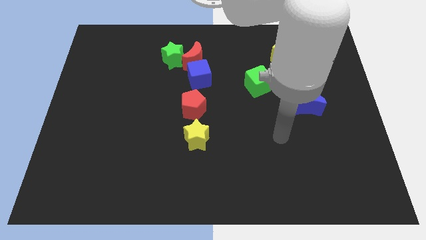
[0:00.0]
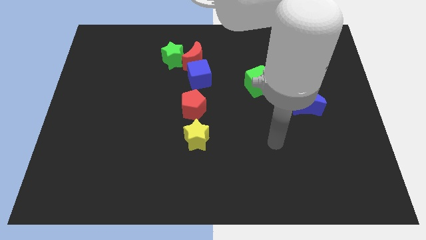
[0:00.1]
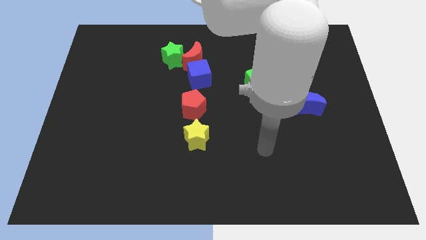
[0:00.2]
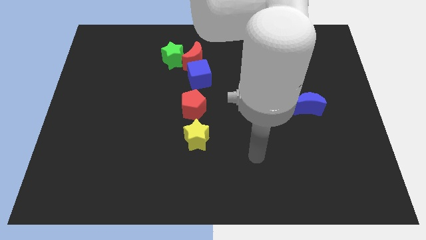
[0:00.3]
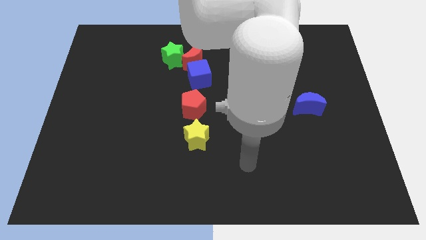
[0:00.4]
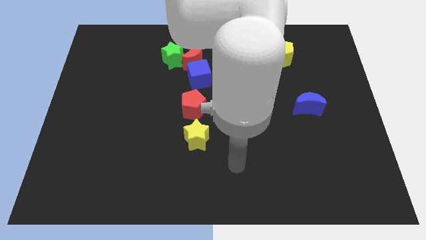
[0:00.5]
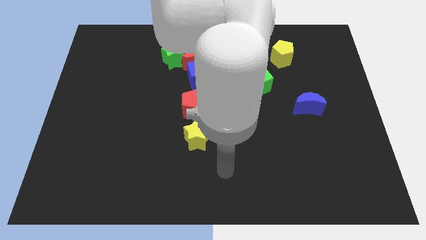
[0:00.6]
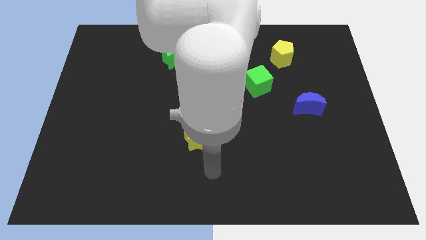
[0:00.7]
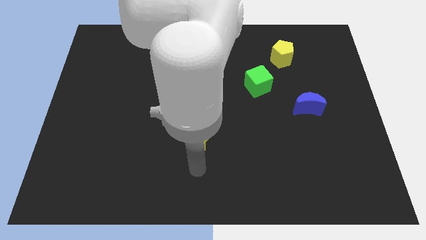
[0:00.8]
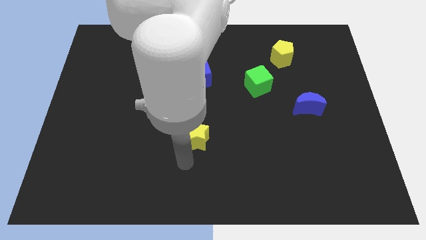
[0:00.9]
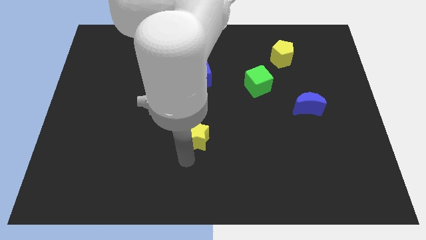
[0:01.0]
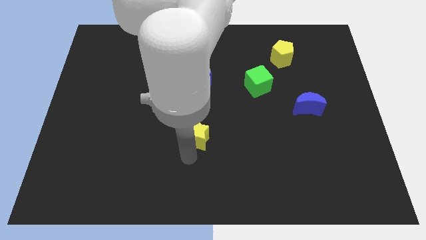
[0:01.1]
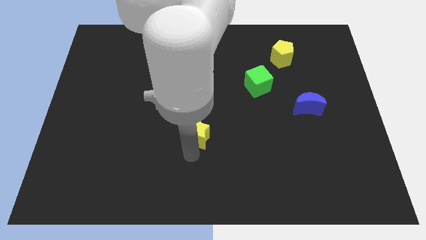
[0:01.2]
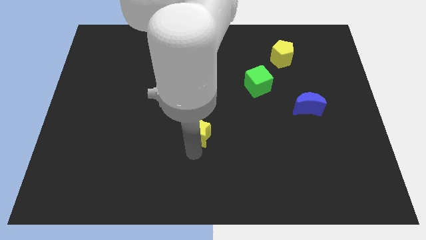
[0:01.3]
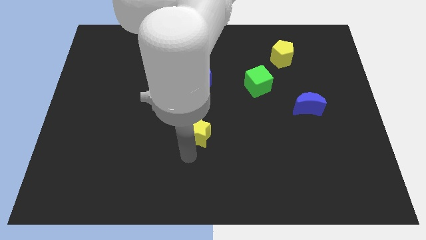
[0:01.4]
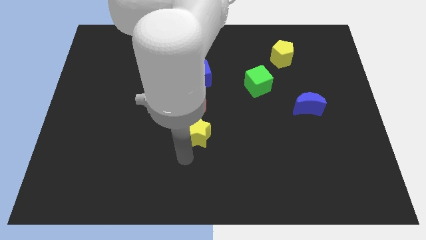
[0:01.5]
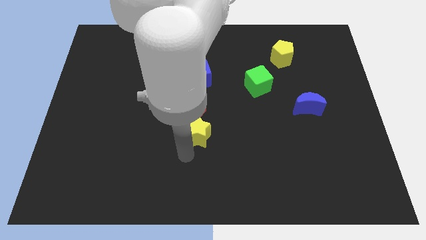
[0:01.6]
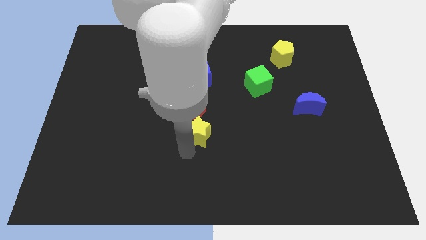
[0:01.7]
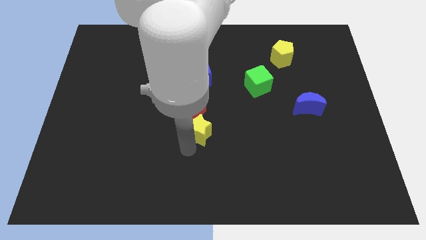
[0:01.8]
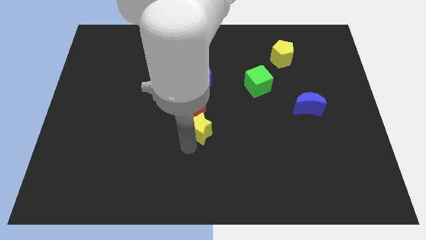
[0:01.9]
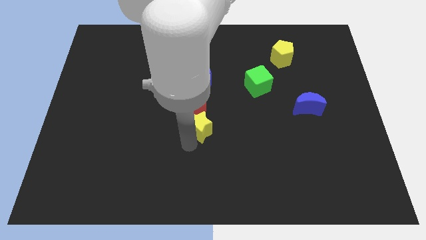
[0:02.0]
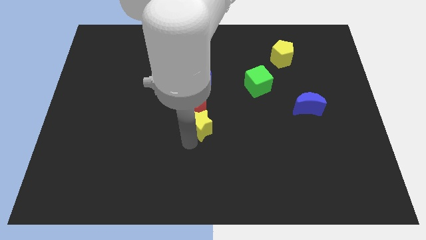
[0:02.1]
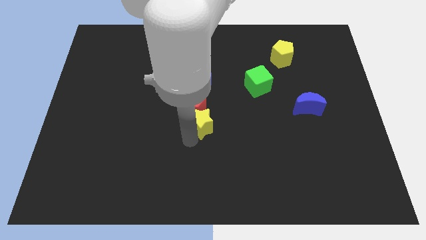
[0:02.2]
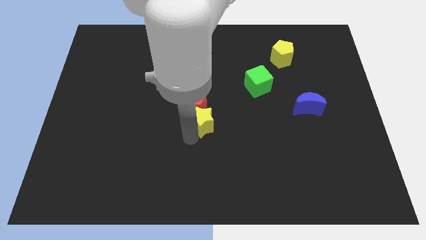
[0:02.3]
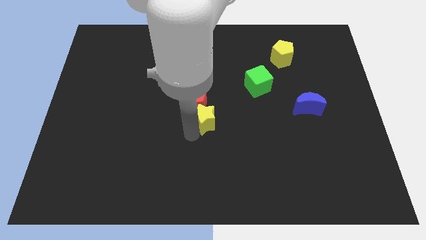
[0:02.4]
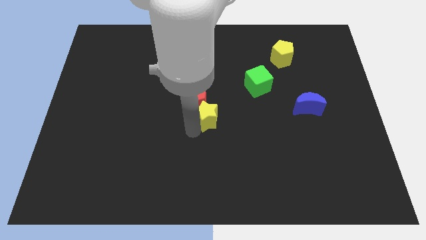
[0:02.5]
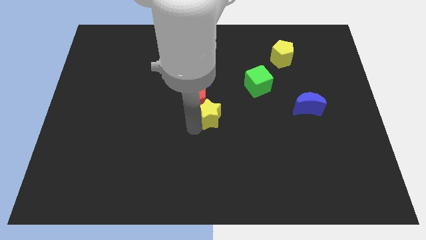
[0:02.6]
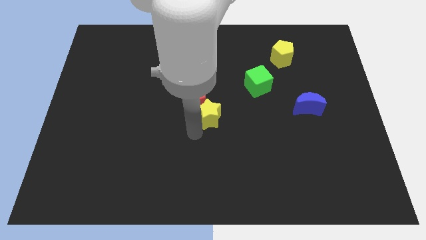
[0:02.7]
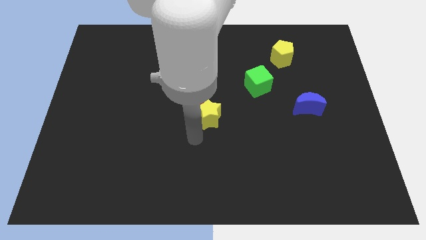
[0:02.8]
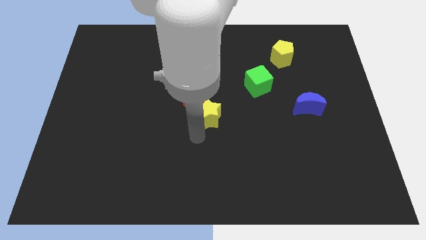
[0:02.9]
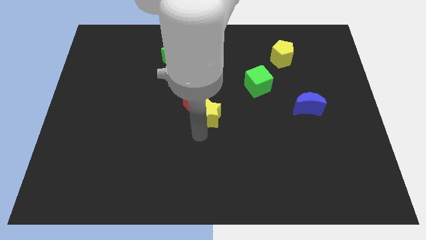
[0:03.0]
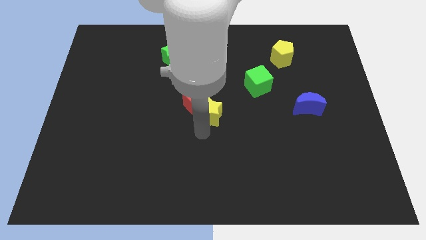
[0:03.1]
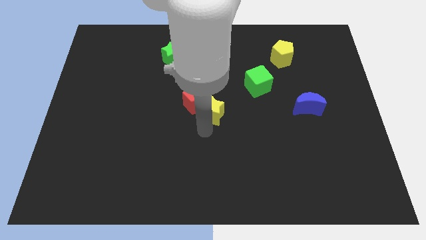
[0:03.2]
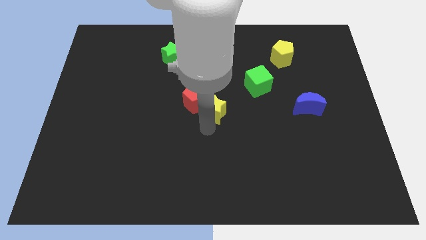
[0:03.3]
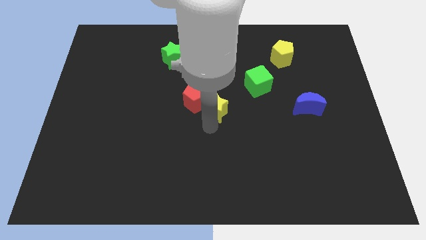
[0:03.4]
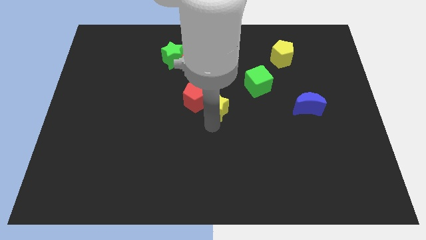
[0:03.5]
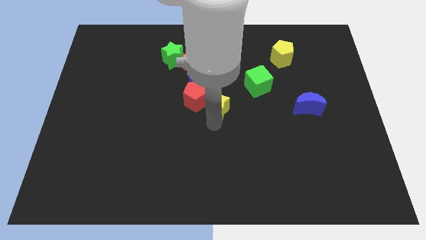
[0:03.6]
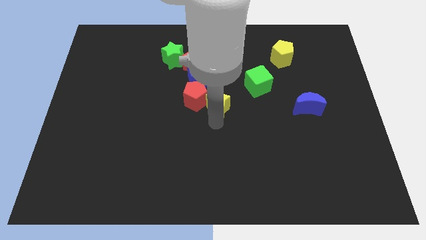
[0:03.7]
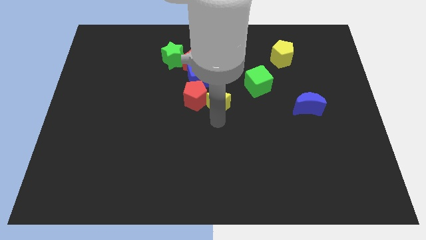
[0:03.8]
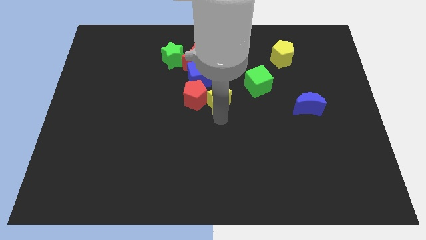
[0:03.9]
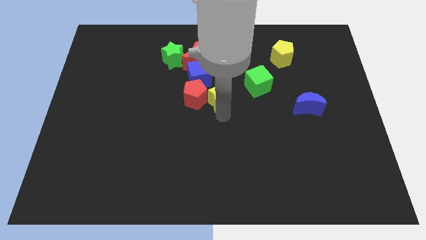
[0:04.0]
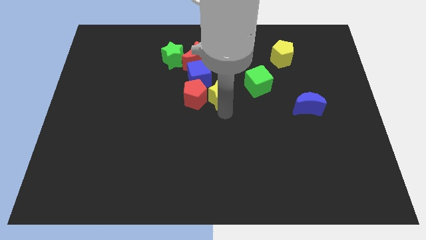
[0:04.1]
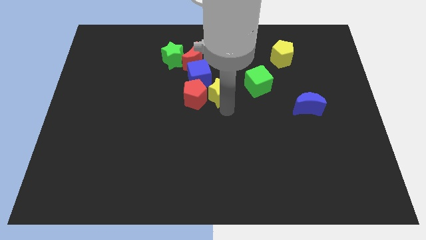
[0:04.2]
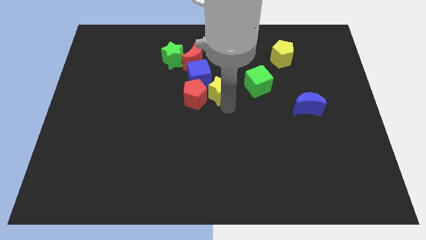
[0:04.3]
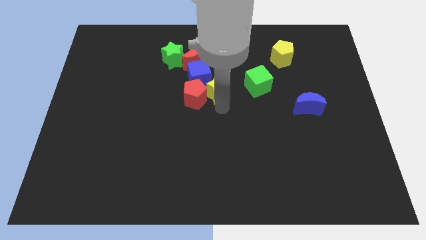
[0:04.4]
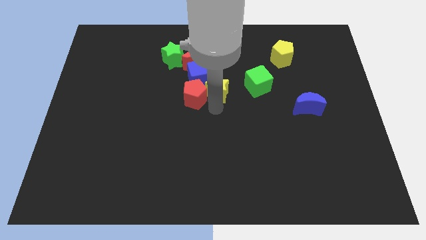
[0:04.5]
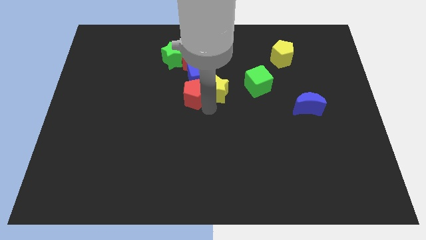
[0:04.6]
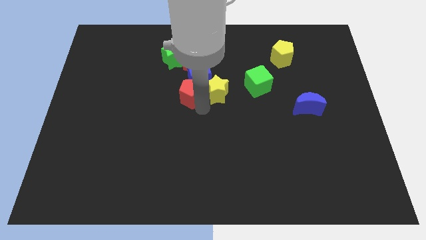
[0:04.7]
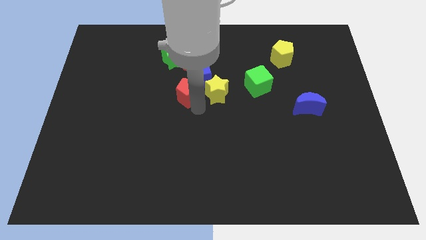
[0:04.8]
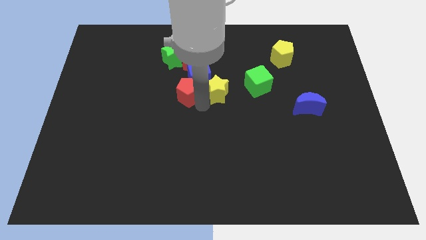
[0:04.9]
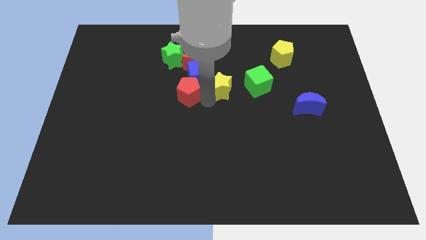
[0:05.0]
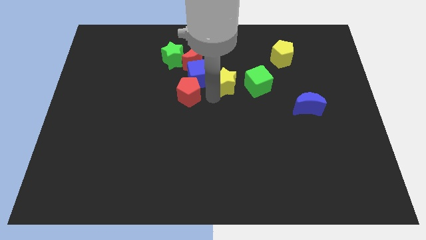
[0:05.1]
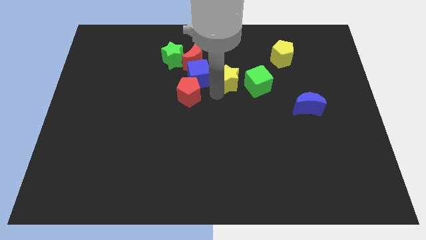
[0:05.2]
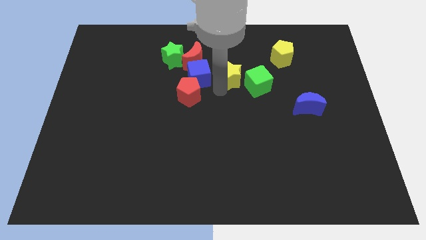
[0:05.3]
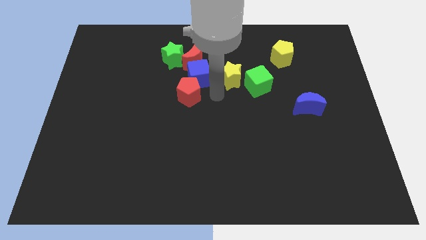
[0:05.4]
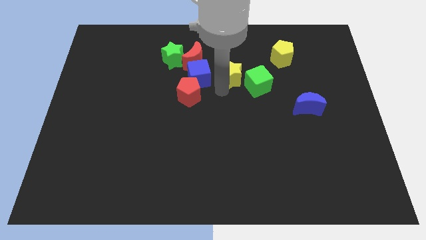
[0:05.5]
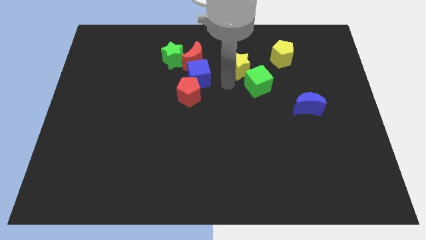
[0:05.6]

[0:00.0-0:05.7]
slide the yellow star to the top of the green cube
